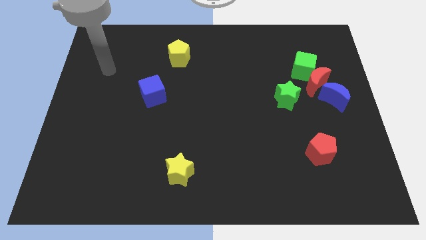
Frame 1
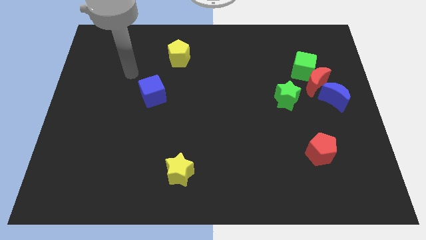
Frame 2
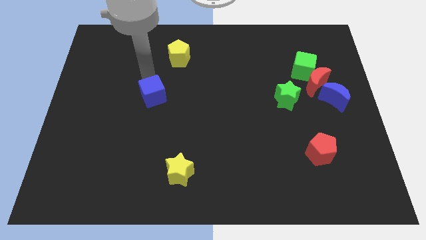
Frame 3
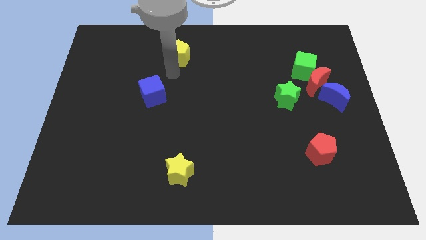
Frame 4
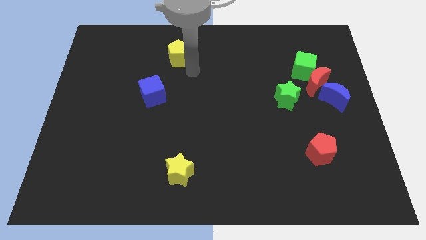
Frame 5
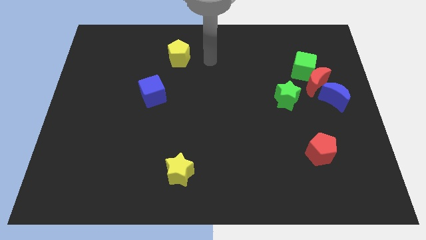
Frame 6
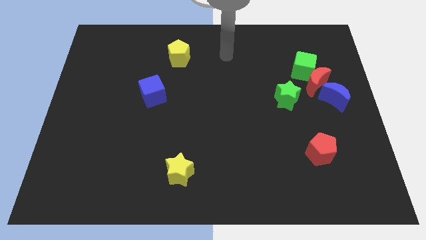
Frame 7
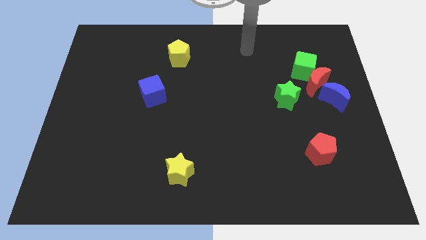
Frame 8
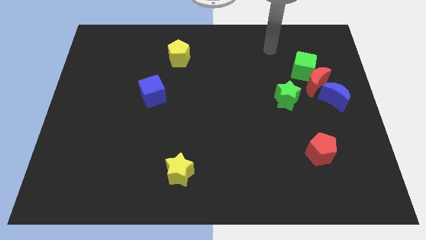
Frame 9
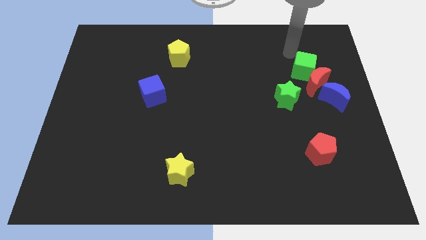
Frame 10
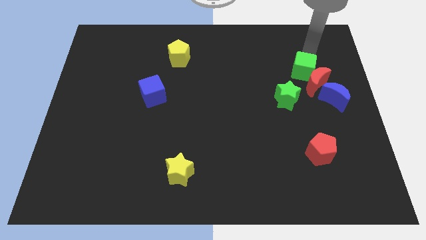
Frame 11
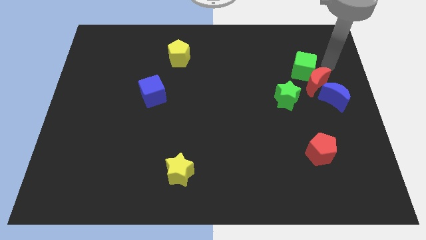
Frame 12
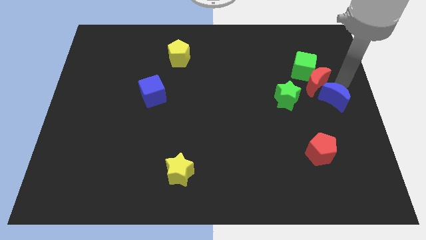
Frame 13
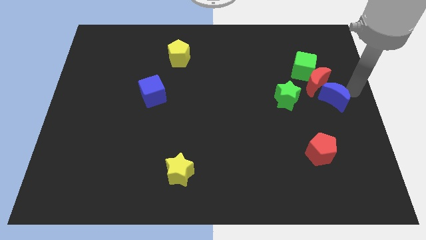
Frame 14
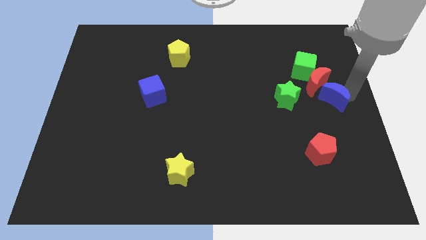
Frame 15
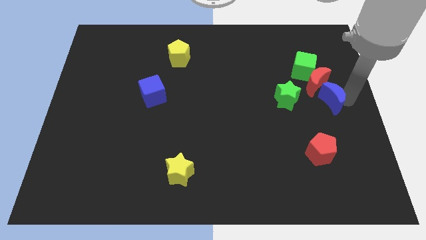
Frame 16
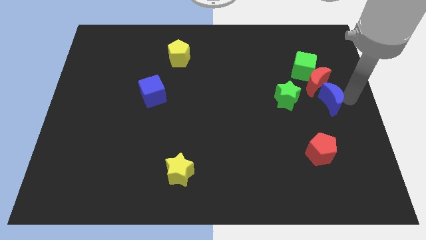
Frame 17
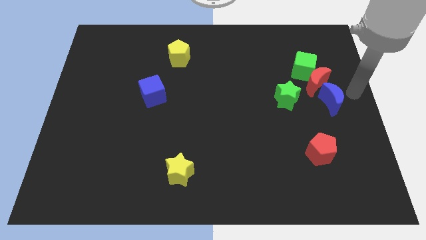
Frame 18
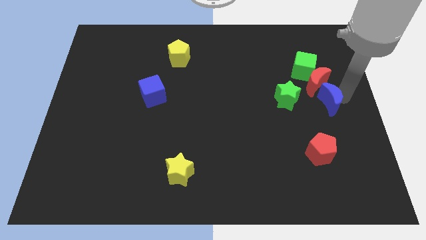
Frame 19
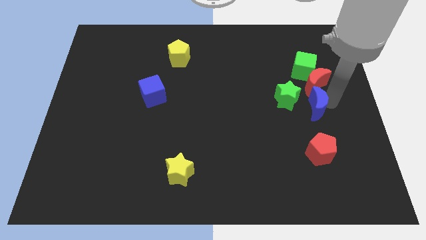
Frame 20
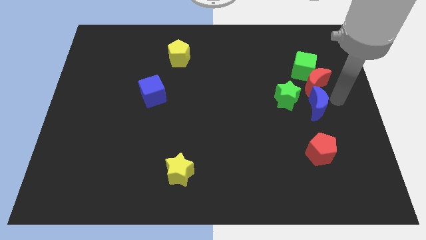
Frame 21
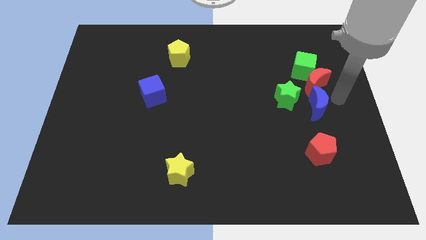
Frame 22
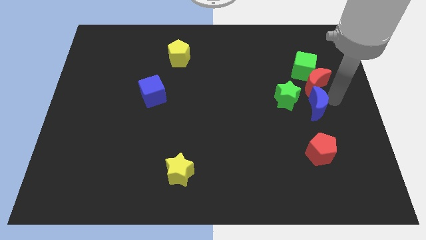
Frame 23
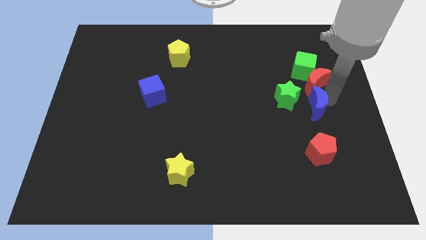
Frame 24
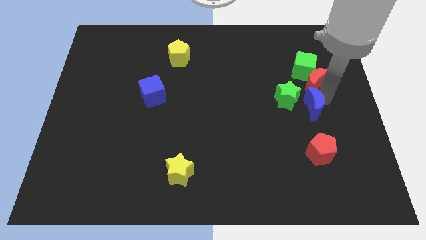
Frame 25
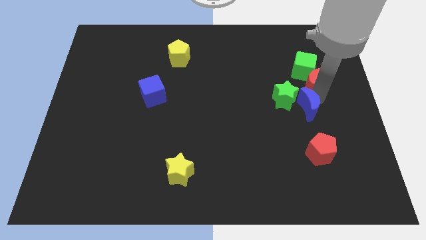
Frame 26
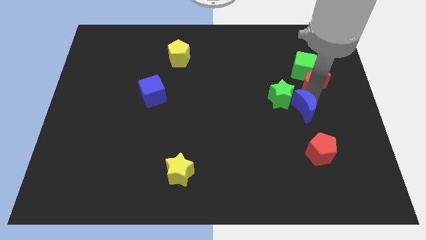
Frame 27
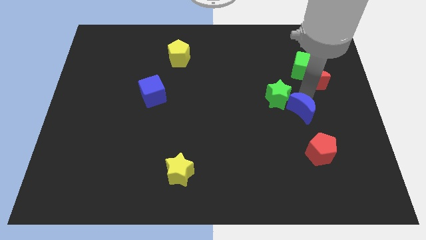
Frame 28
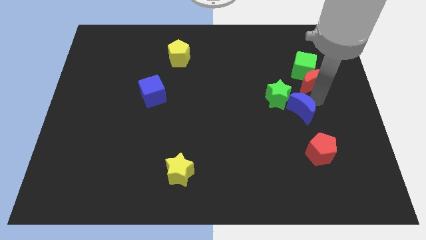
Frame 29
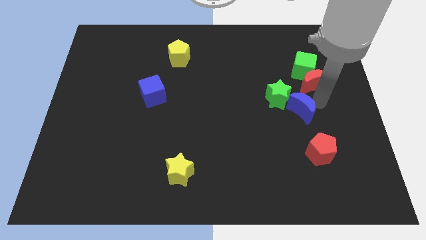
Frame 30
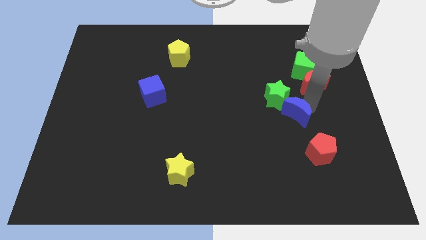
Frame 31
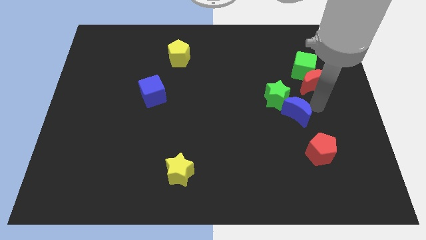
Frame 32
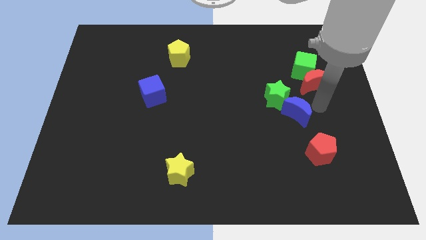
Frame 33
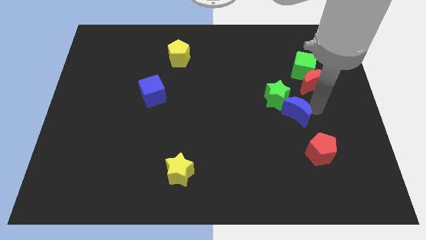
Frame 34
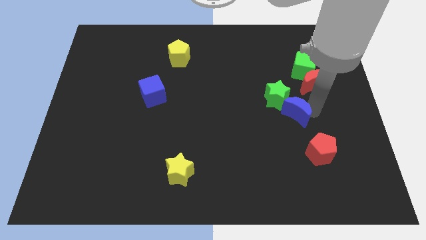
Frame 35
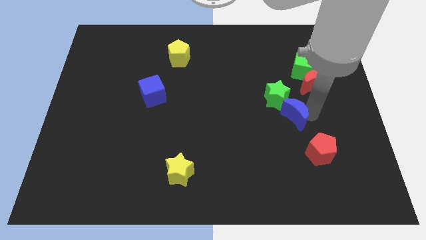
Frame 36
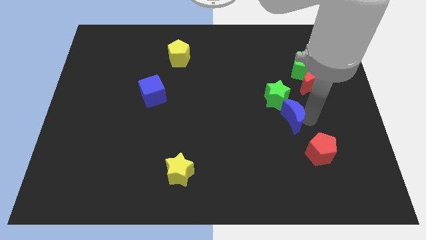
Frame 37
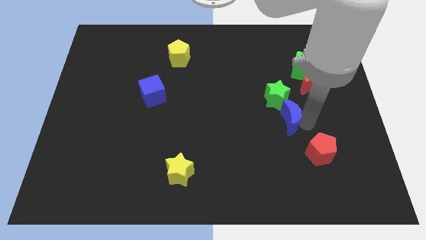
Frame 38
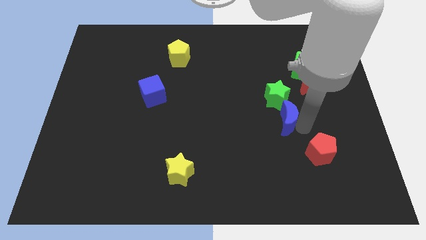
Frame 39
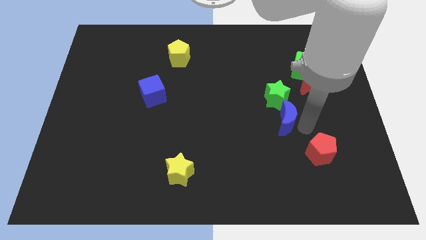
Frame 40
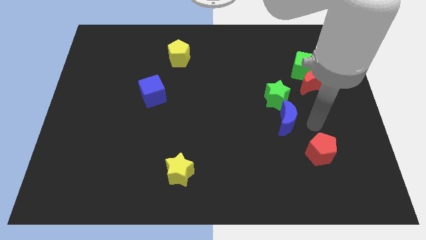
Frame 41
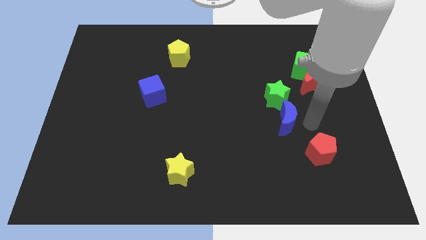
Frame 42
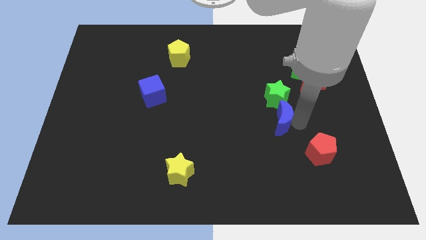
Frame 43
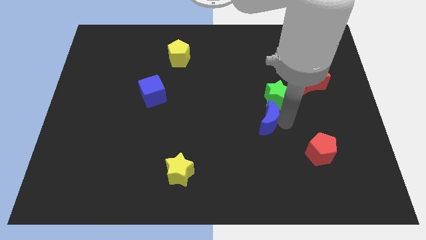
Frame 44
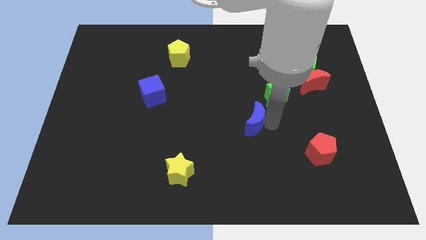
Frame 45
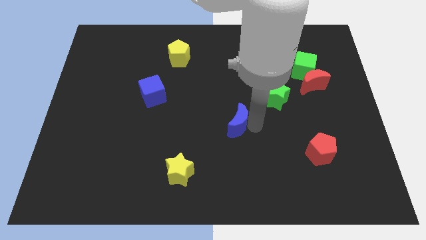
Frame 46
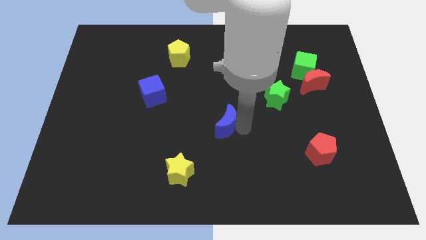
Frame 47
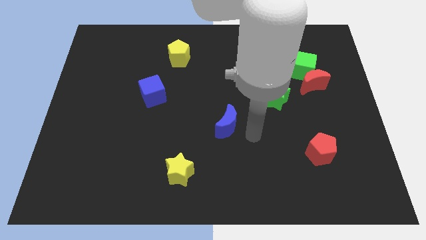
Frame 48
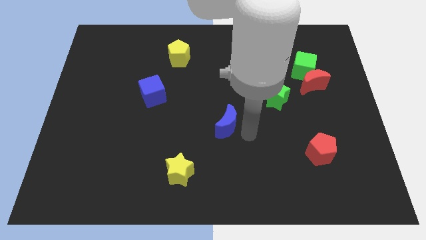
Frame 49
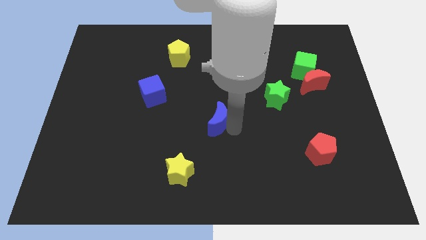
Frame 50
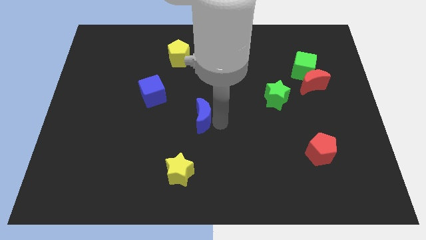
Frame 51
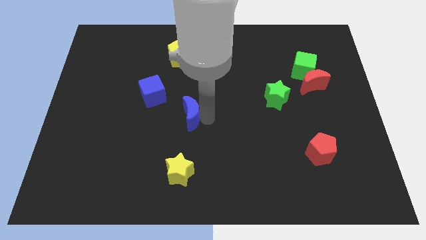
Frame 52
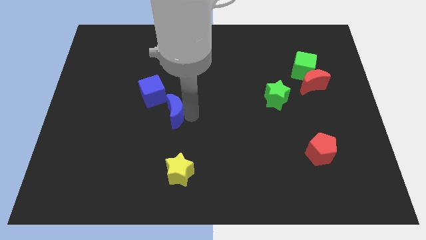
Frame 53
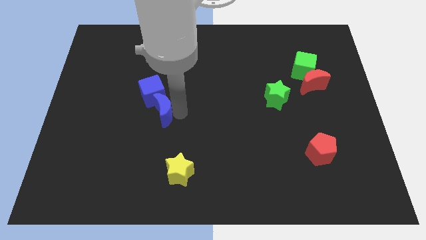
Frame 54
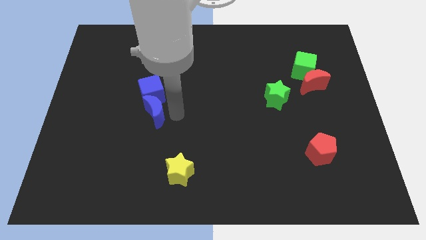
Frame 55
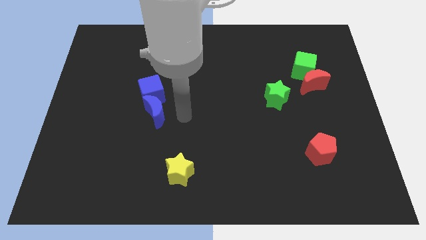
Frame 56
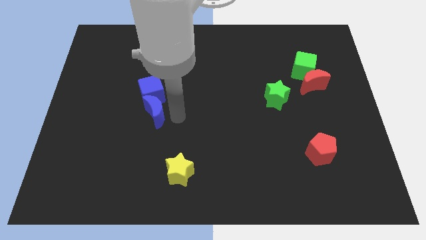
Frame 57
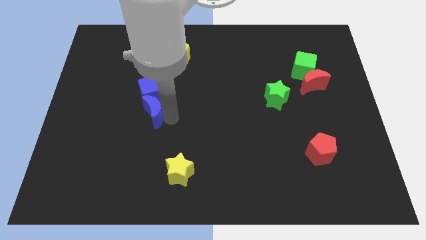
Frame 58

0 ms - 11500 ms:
put the blue moon diagonally down and to the left of the blue cube

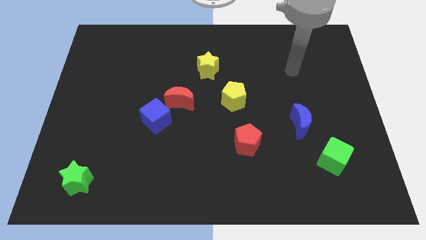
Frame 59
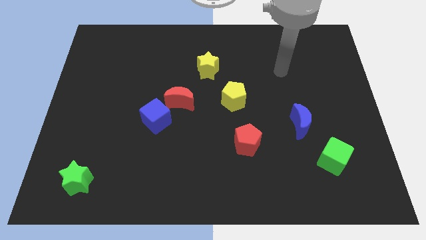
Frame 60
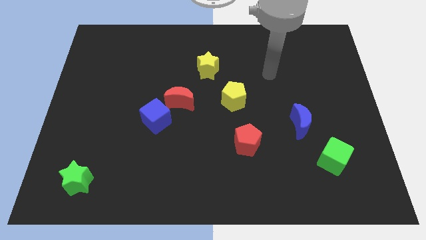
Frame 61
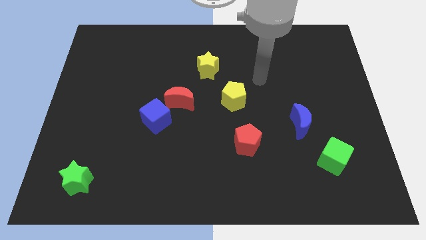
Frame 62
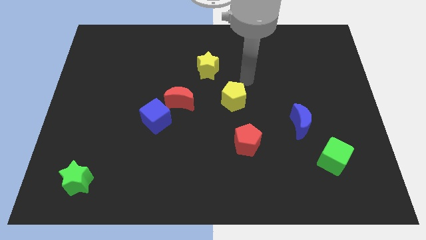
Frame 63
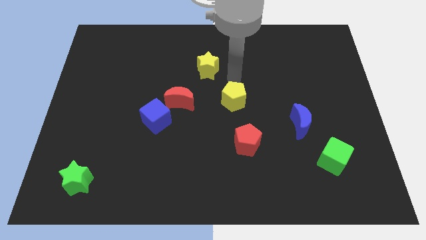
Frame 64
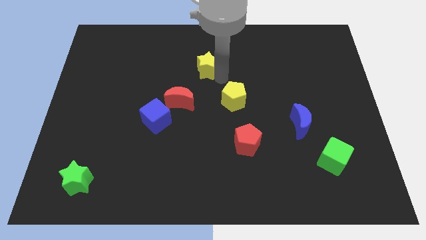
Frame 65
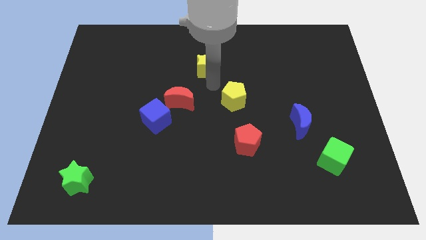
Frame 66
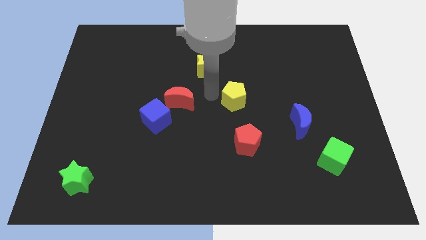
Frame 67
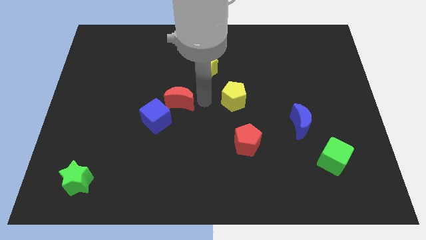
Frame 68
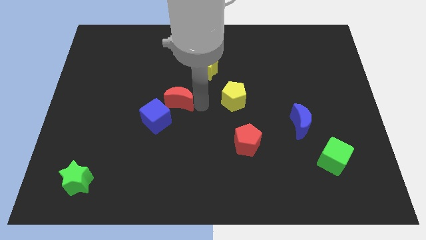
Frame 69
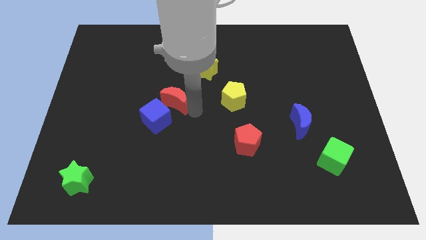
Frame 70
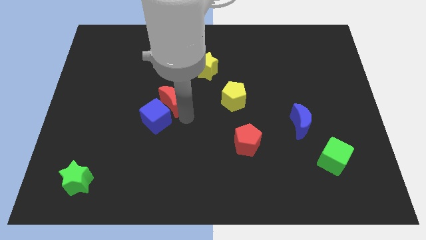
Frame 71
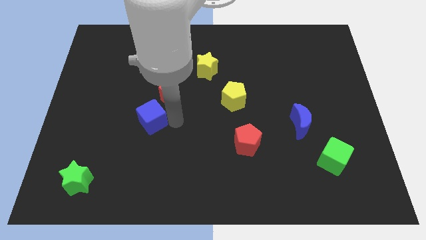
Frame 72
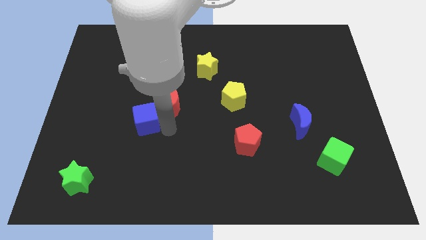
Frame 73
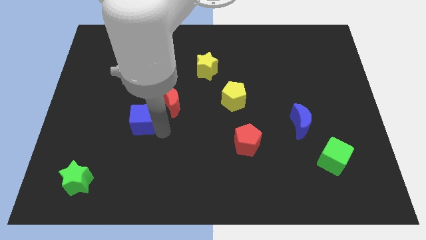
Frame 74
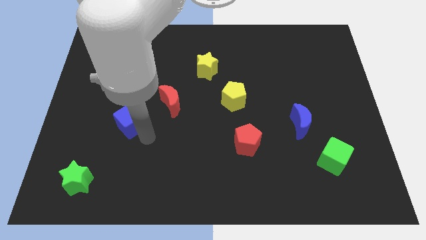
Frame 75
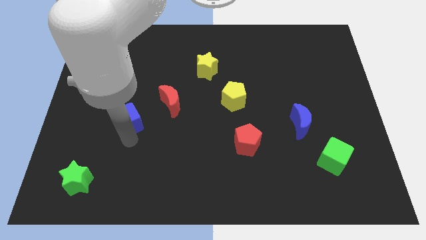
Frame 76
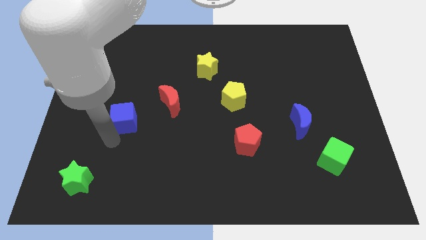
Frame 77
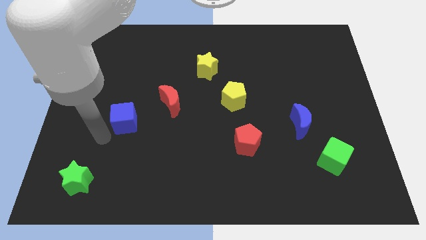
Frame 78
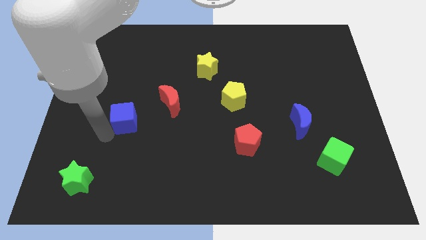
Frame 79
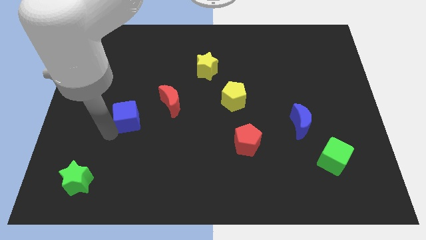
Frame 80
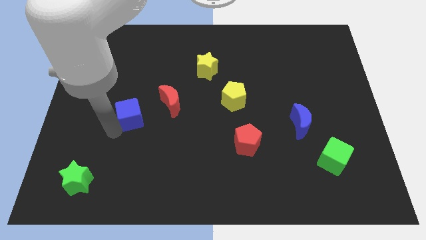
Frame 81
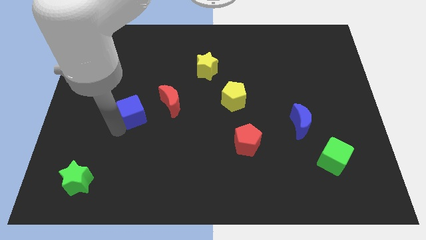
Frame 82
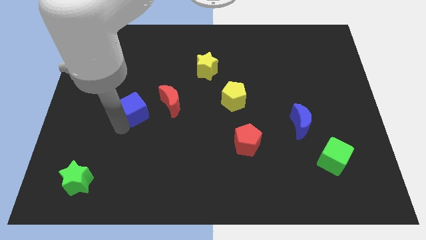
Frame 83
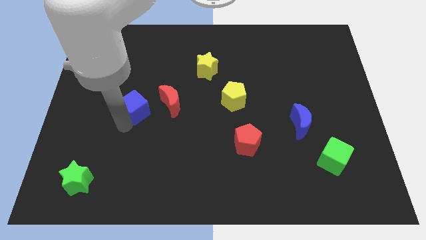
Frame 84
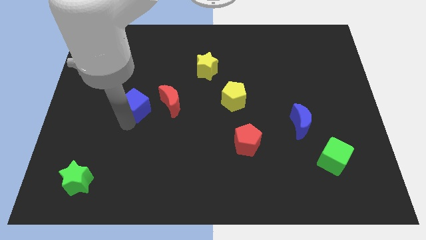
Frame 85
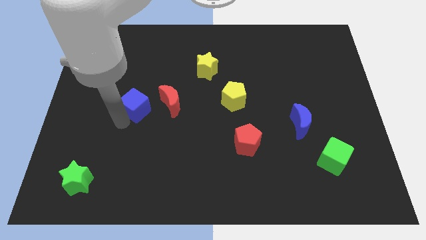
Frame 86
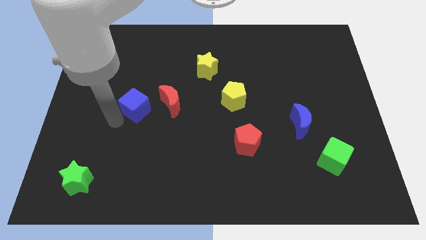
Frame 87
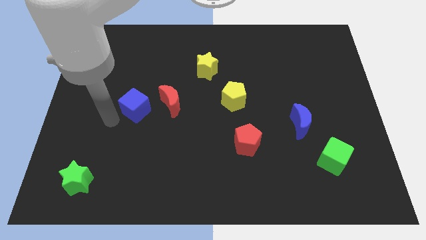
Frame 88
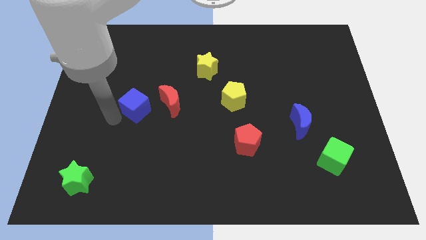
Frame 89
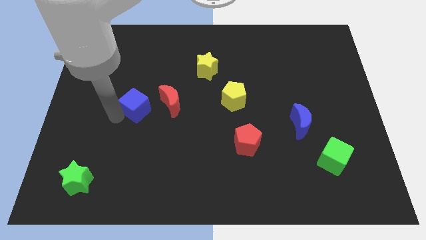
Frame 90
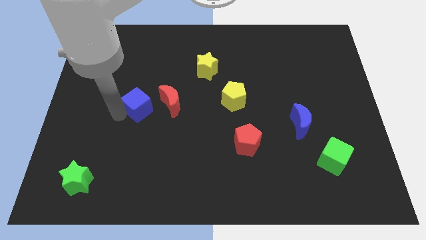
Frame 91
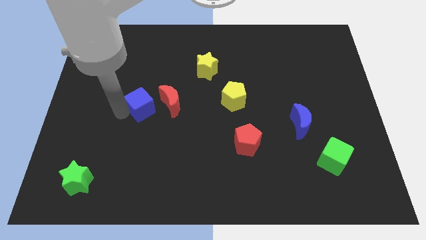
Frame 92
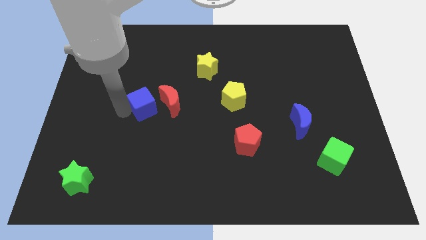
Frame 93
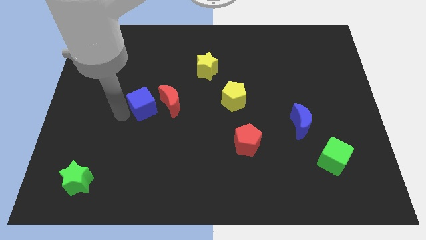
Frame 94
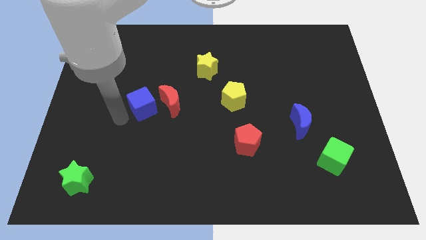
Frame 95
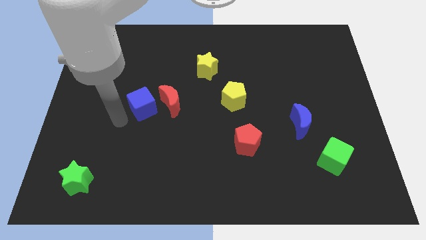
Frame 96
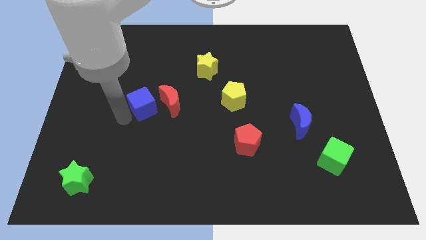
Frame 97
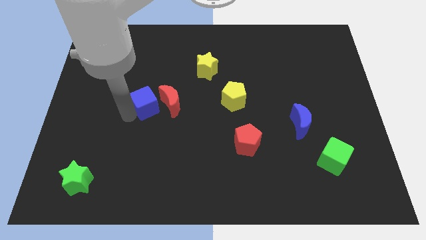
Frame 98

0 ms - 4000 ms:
put the blue cube to the top left of the red moon
